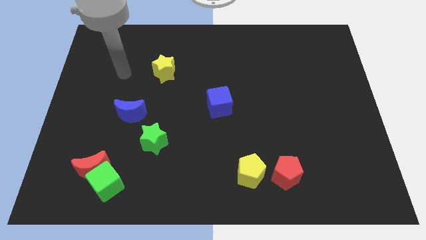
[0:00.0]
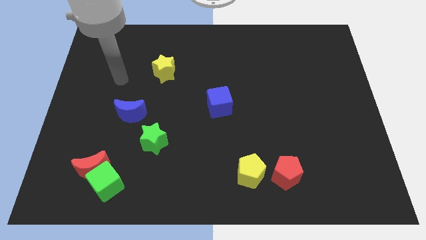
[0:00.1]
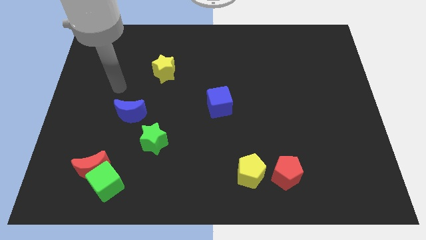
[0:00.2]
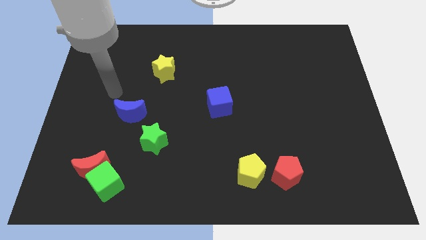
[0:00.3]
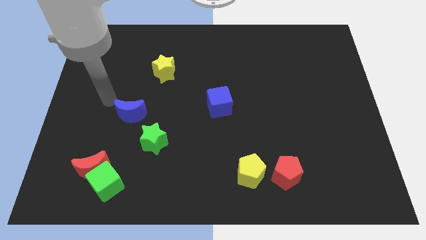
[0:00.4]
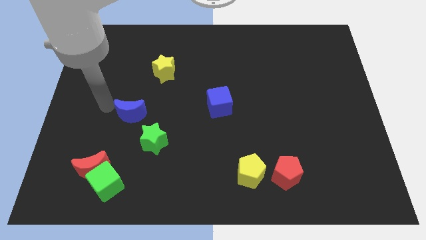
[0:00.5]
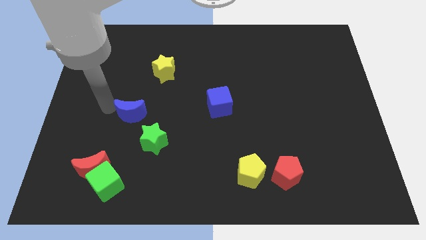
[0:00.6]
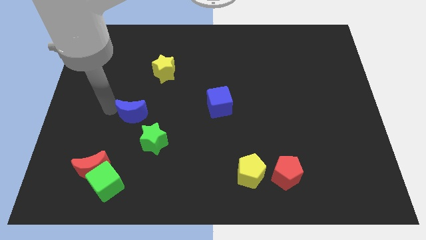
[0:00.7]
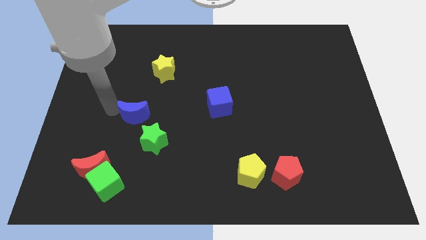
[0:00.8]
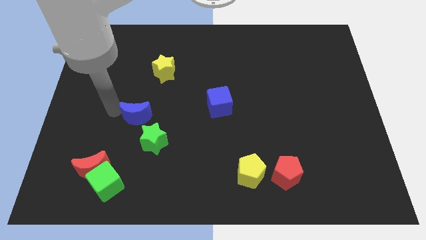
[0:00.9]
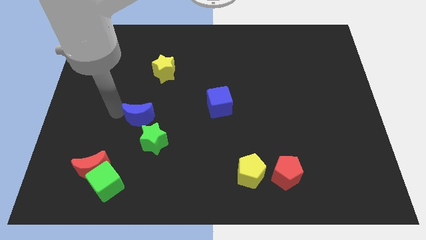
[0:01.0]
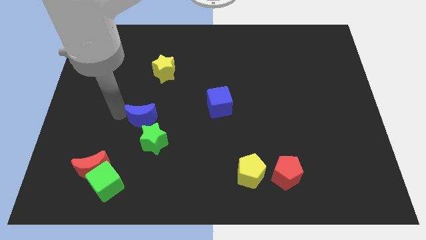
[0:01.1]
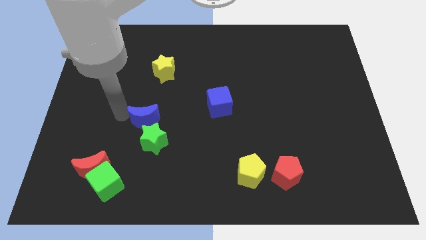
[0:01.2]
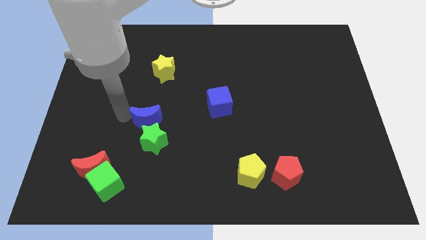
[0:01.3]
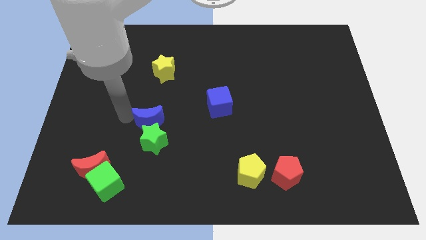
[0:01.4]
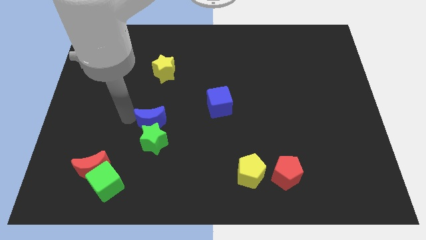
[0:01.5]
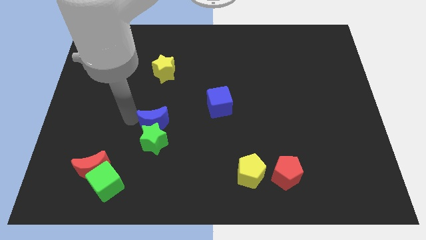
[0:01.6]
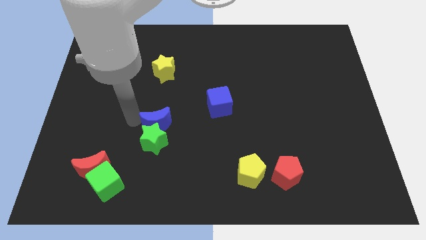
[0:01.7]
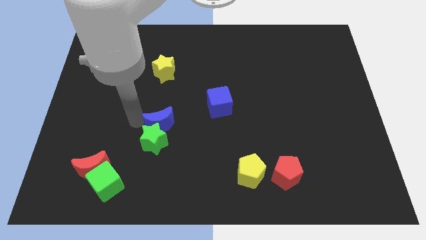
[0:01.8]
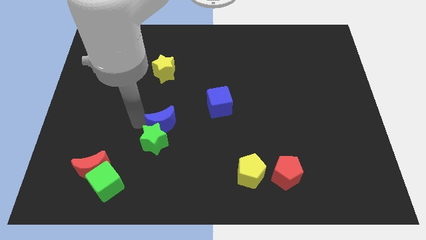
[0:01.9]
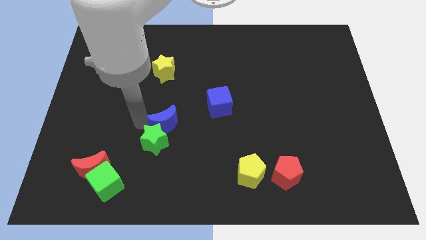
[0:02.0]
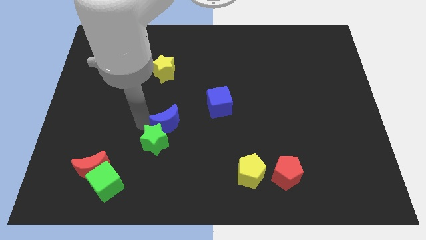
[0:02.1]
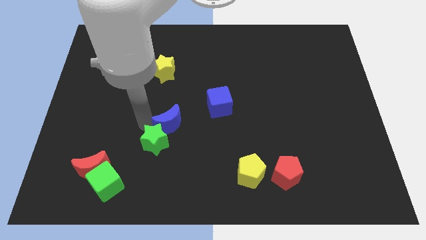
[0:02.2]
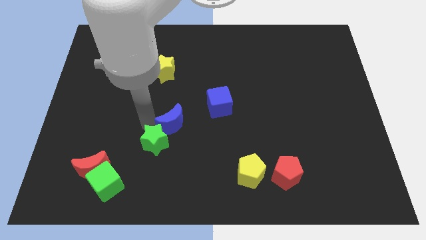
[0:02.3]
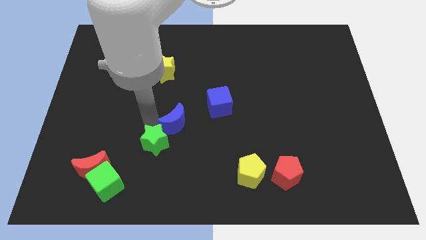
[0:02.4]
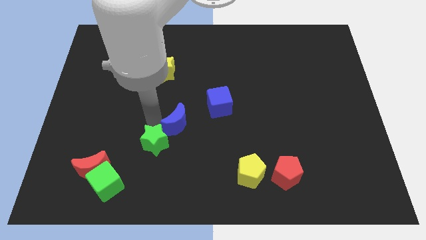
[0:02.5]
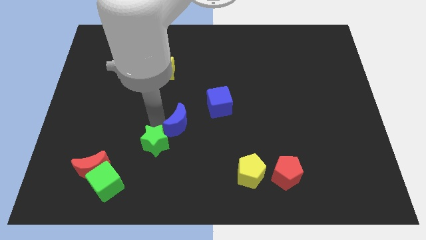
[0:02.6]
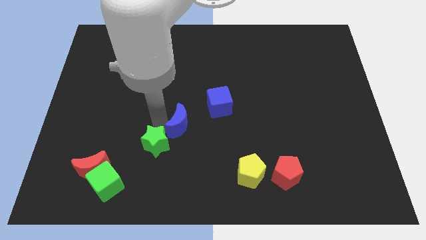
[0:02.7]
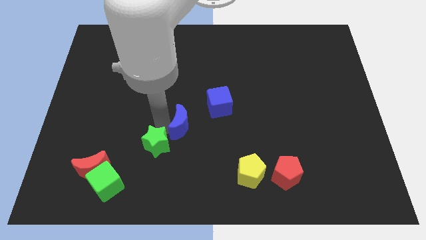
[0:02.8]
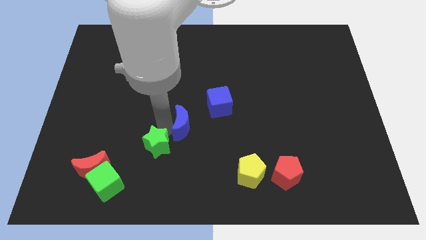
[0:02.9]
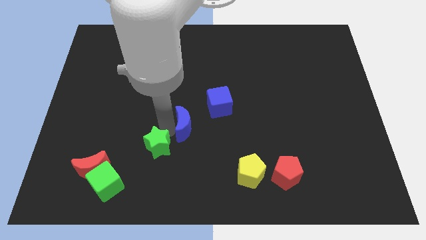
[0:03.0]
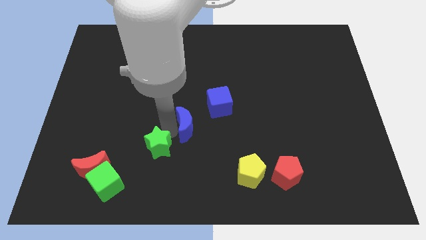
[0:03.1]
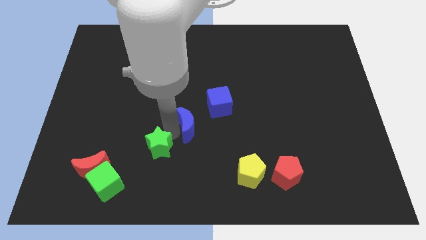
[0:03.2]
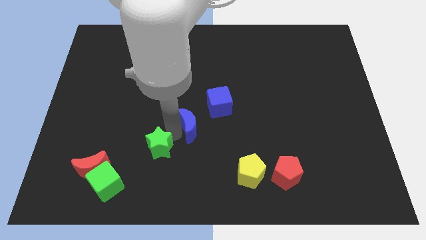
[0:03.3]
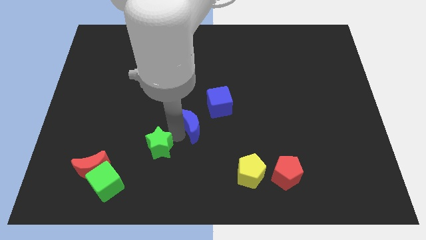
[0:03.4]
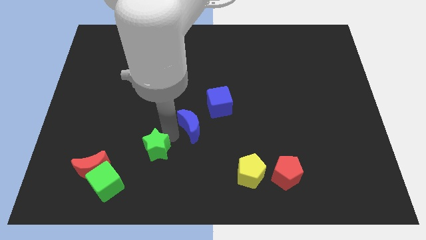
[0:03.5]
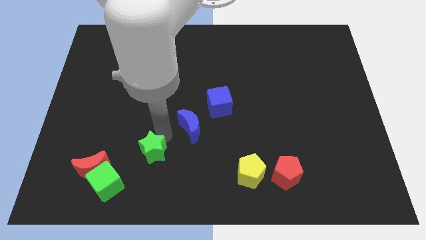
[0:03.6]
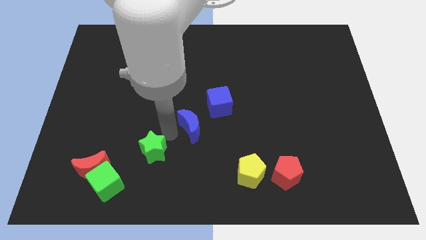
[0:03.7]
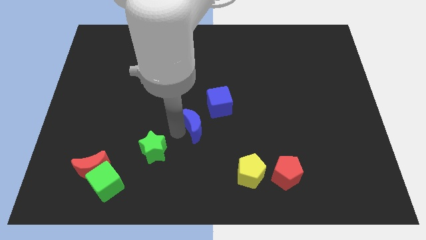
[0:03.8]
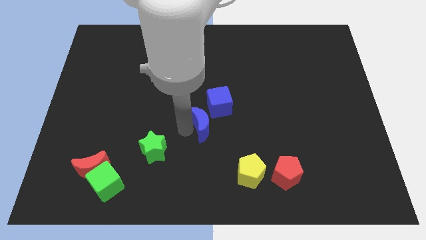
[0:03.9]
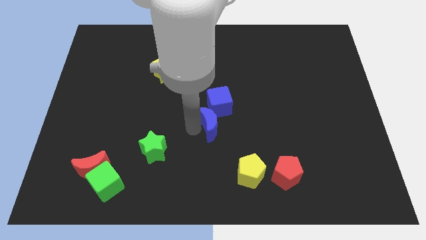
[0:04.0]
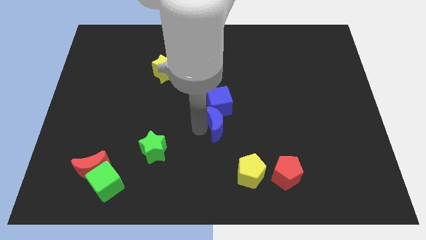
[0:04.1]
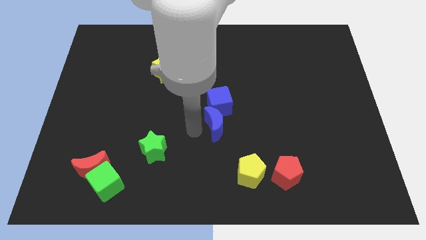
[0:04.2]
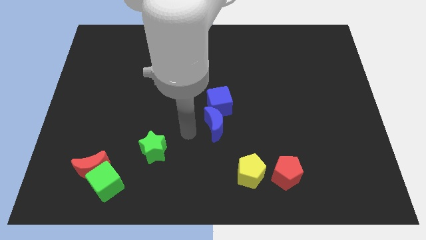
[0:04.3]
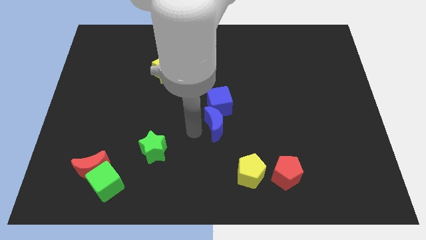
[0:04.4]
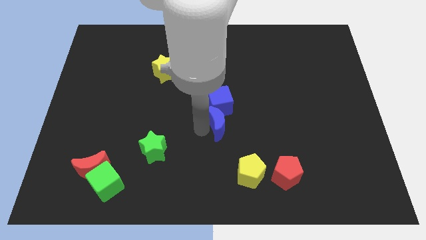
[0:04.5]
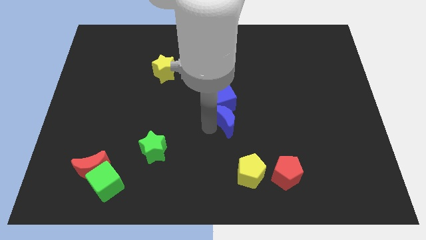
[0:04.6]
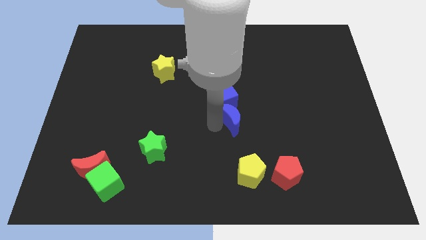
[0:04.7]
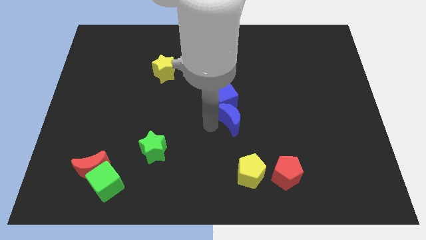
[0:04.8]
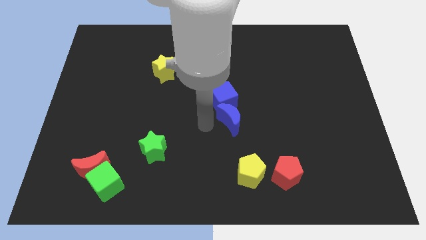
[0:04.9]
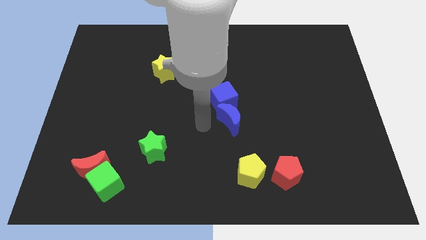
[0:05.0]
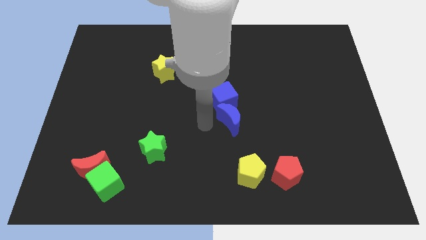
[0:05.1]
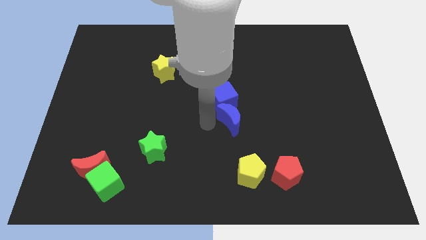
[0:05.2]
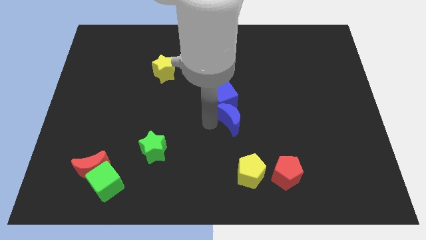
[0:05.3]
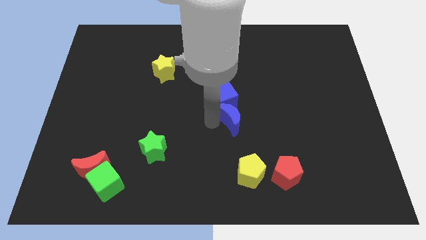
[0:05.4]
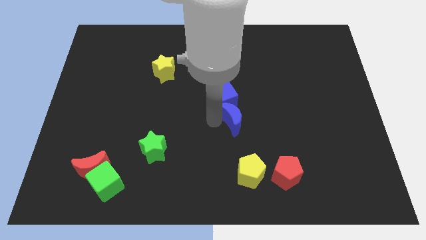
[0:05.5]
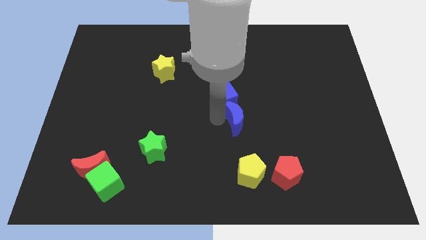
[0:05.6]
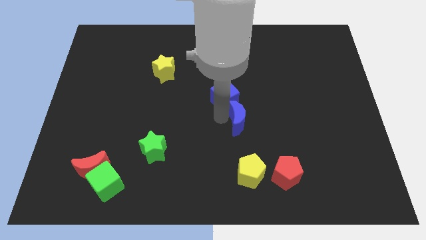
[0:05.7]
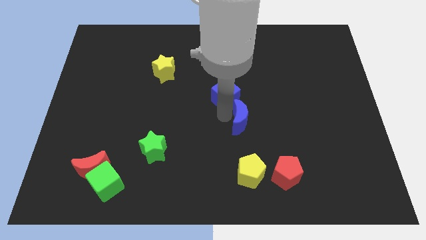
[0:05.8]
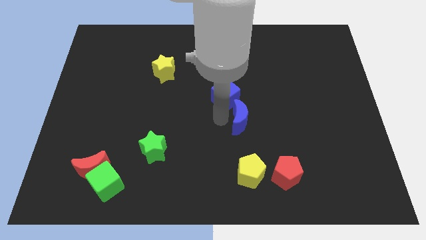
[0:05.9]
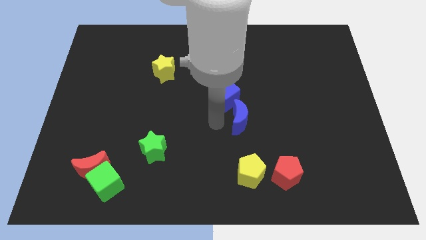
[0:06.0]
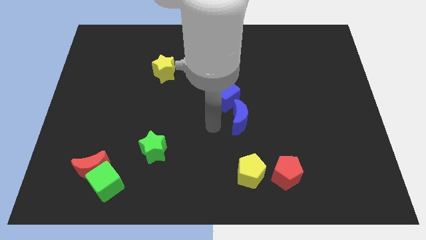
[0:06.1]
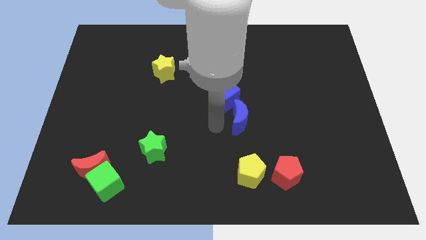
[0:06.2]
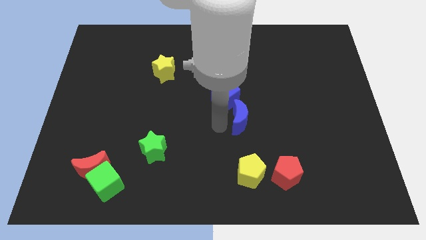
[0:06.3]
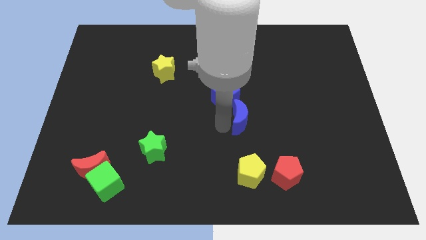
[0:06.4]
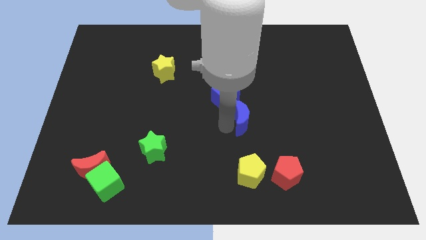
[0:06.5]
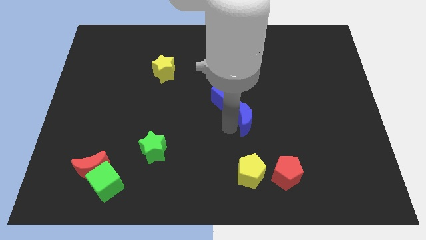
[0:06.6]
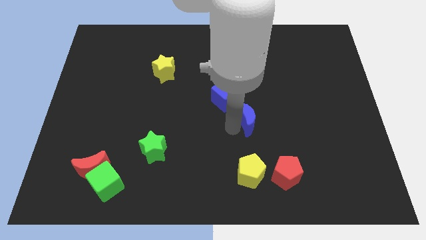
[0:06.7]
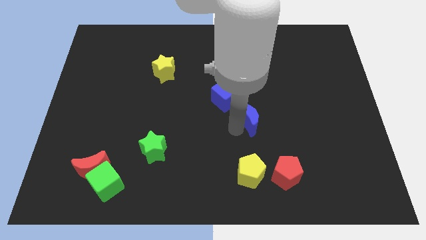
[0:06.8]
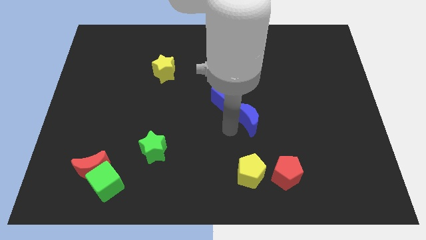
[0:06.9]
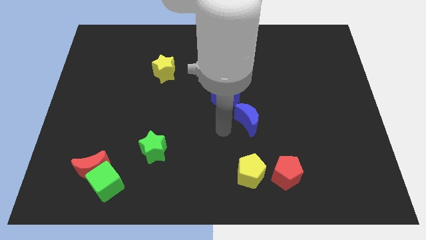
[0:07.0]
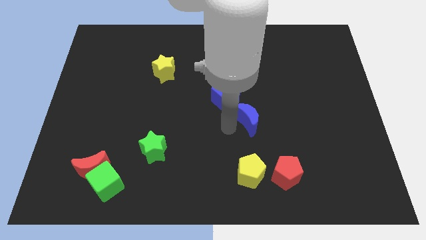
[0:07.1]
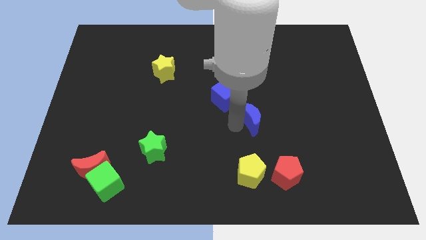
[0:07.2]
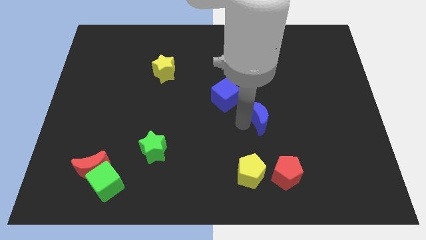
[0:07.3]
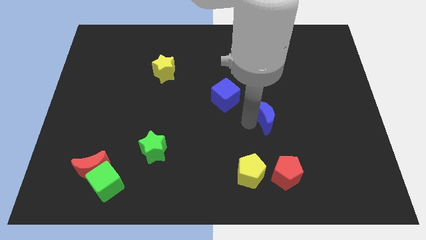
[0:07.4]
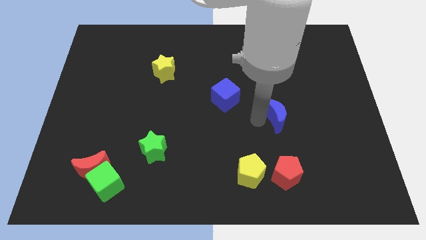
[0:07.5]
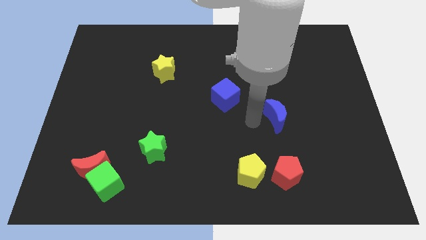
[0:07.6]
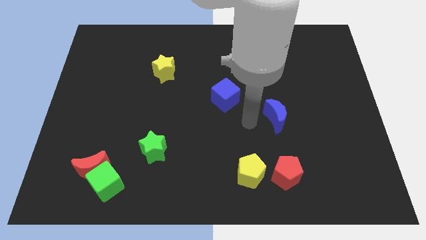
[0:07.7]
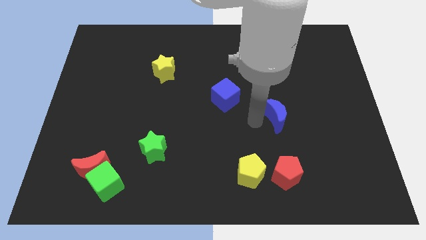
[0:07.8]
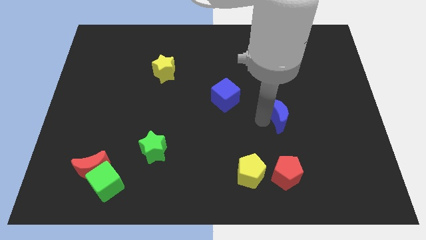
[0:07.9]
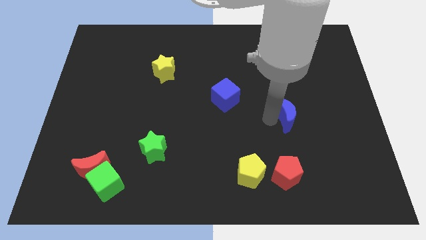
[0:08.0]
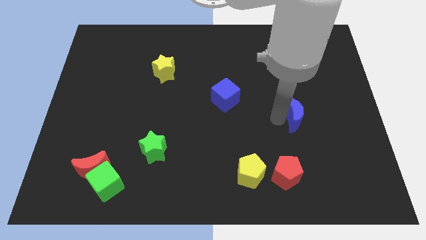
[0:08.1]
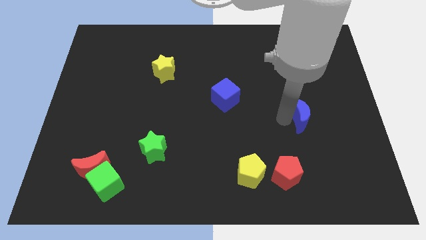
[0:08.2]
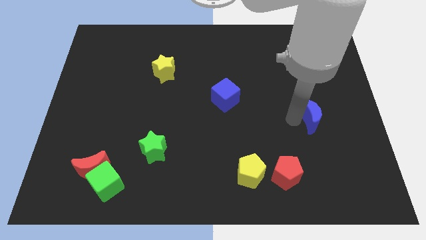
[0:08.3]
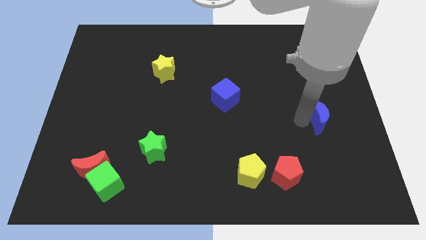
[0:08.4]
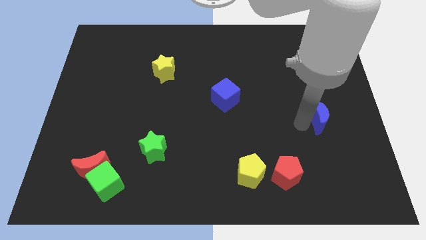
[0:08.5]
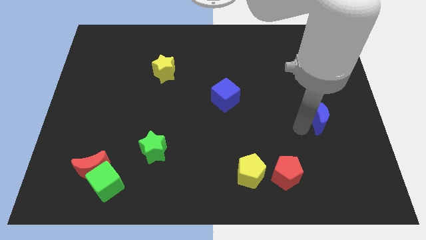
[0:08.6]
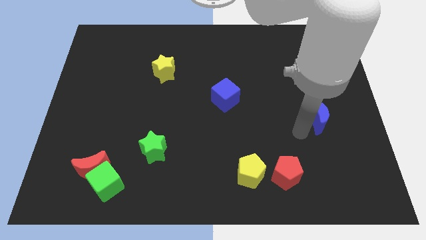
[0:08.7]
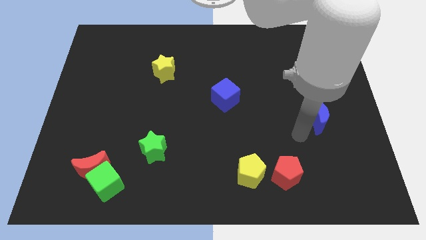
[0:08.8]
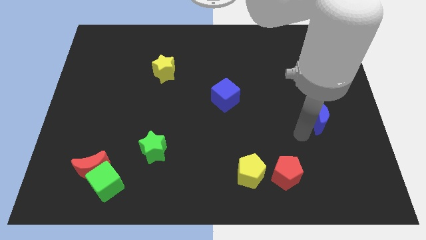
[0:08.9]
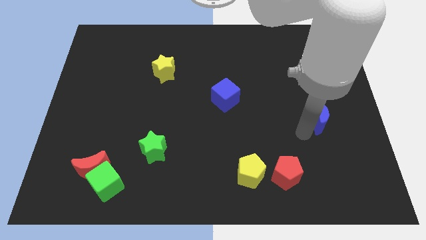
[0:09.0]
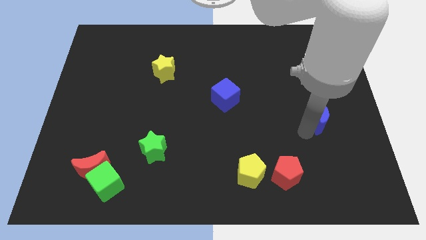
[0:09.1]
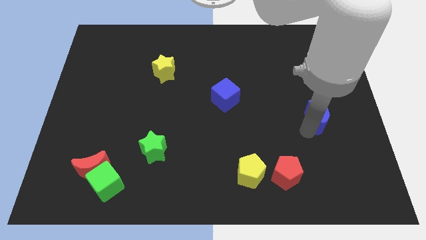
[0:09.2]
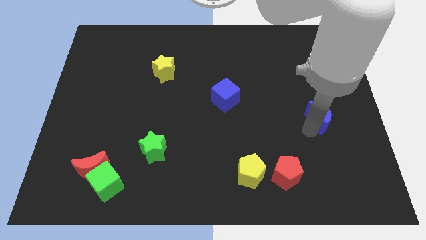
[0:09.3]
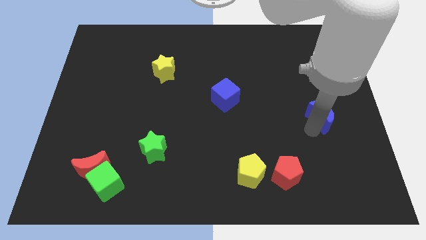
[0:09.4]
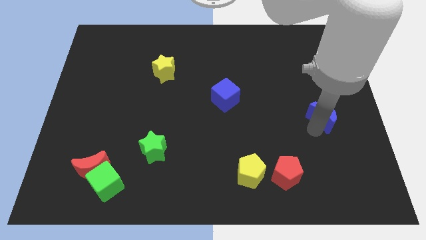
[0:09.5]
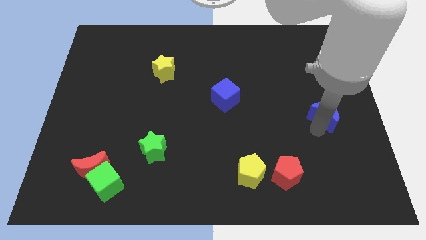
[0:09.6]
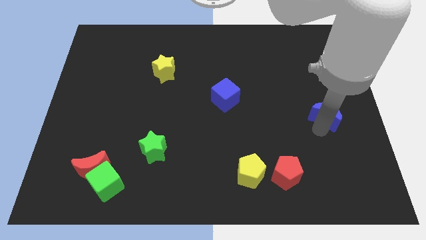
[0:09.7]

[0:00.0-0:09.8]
slide the blue moon to the right side
